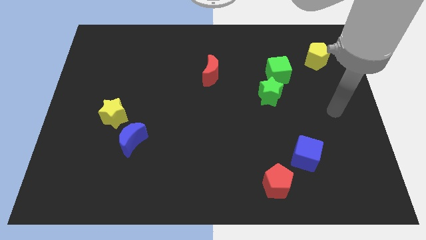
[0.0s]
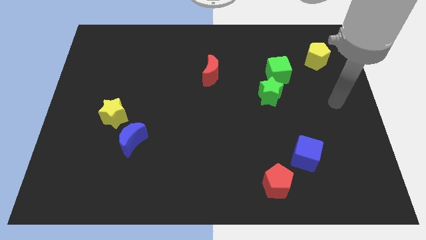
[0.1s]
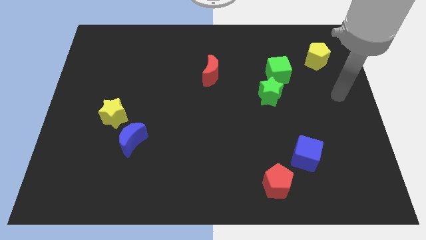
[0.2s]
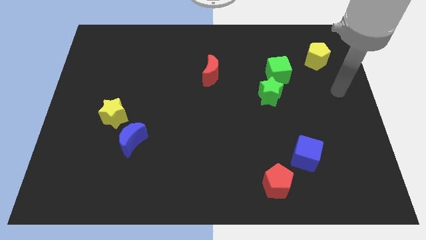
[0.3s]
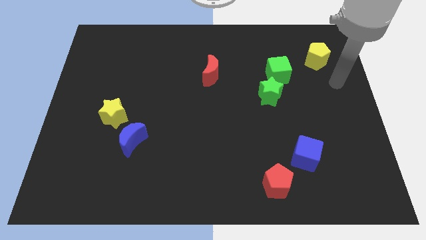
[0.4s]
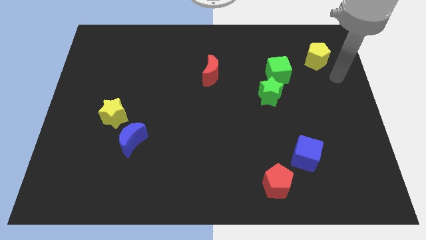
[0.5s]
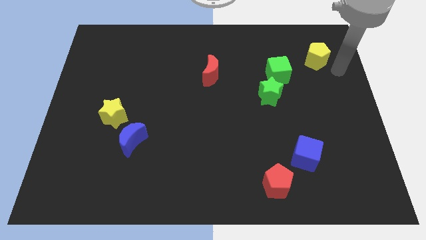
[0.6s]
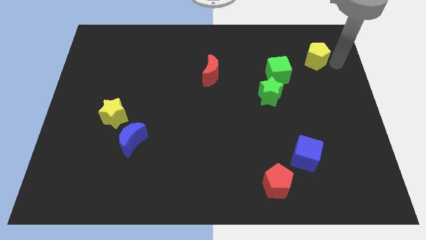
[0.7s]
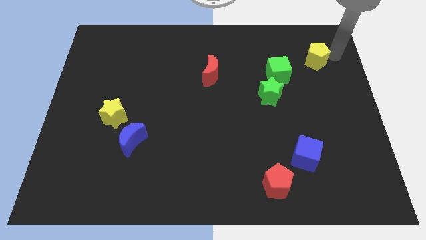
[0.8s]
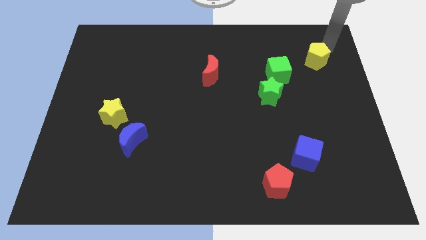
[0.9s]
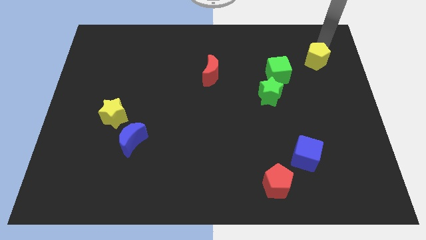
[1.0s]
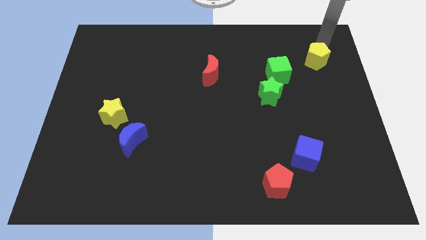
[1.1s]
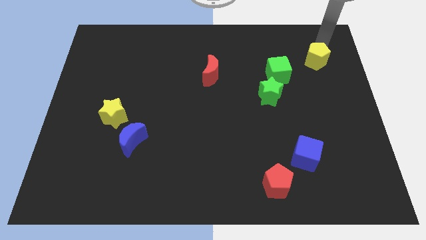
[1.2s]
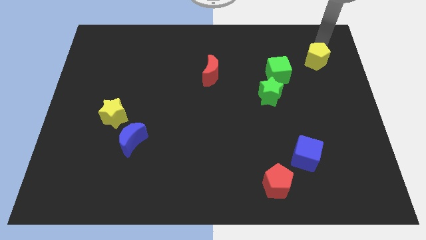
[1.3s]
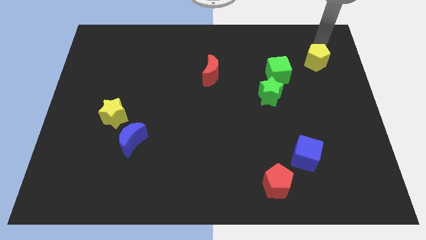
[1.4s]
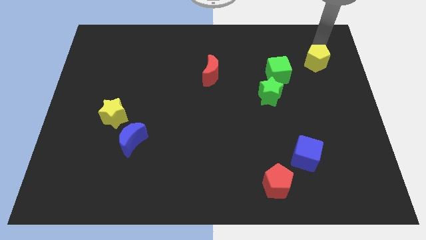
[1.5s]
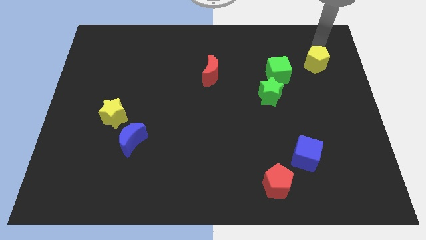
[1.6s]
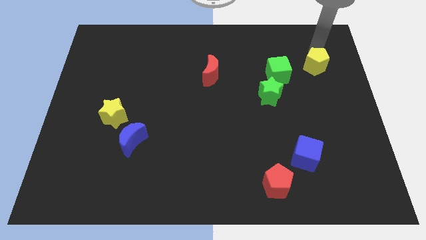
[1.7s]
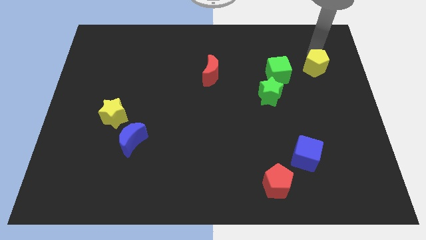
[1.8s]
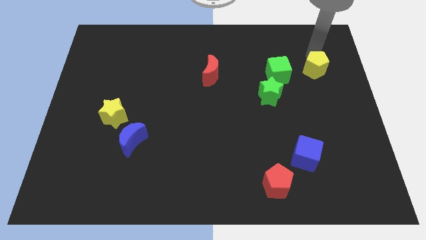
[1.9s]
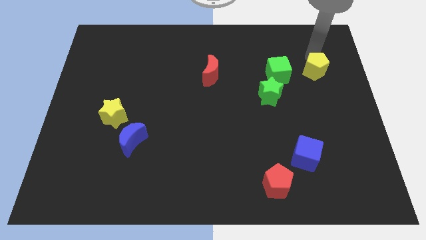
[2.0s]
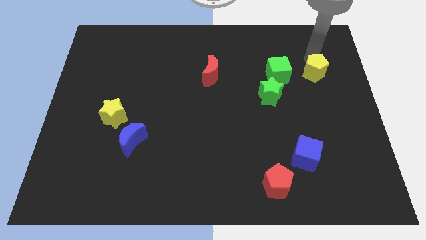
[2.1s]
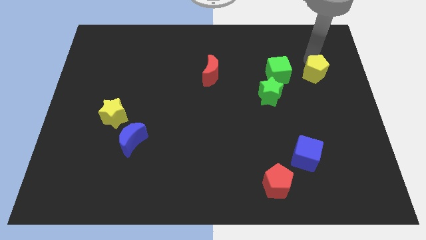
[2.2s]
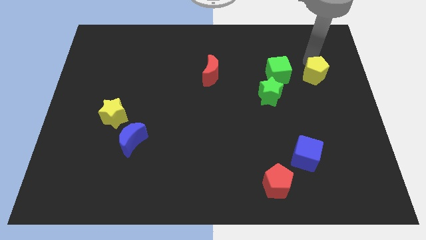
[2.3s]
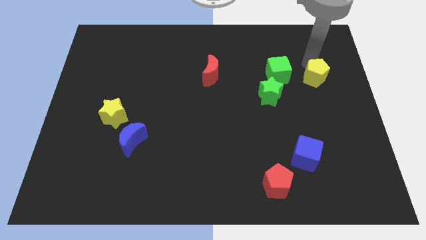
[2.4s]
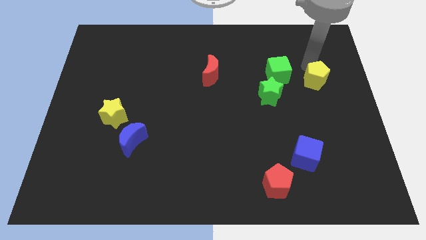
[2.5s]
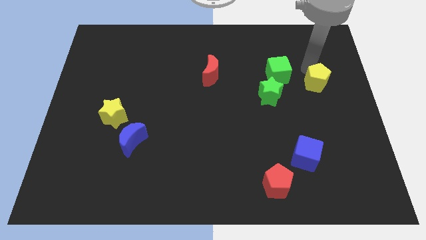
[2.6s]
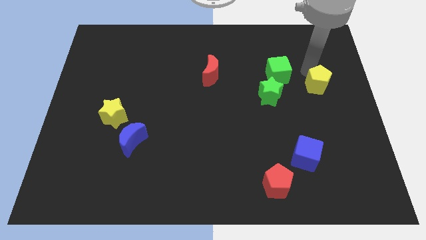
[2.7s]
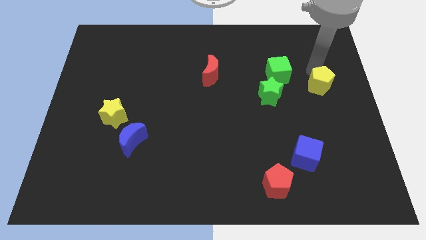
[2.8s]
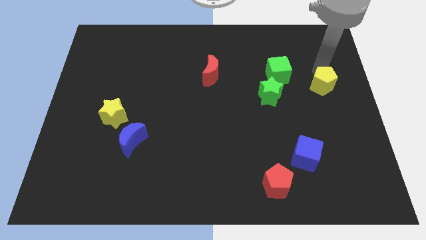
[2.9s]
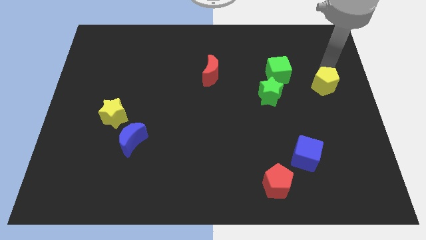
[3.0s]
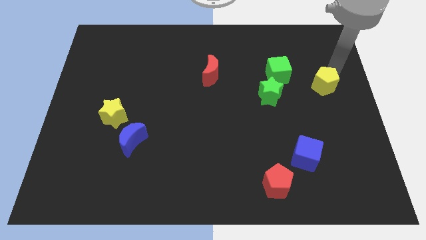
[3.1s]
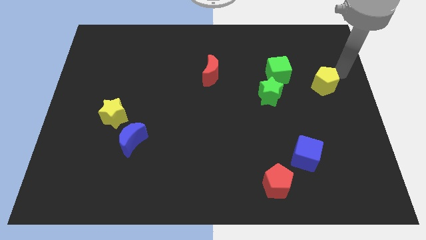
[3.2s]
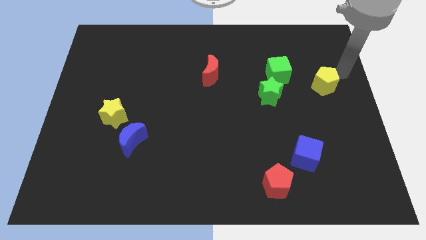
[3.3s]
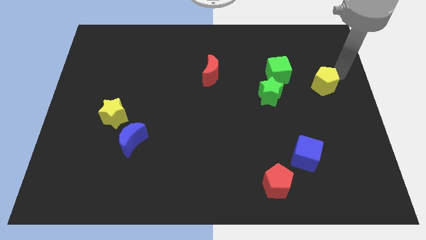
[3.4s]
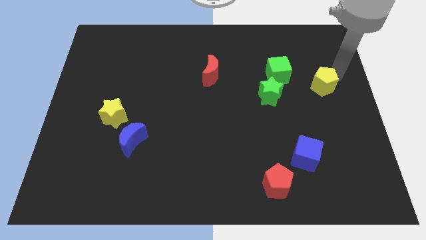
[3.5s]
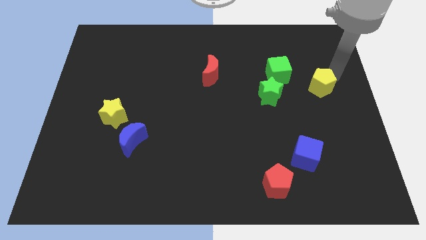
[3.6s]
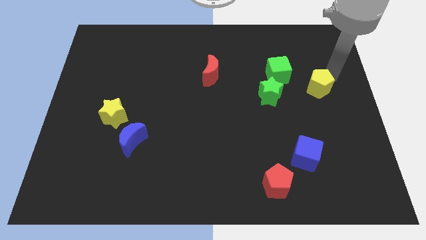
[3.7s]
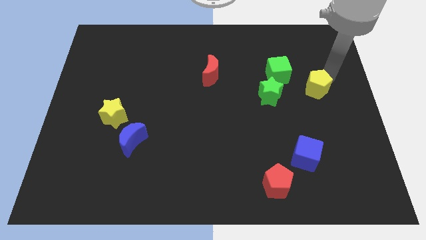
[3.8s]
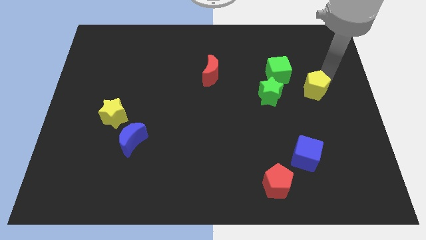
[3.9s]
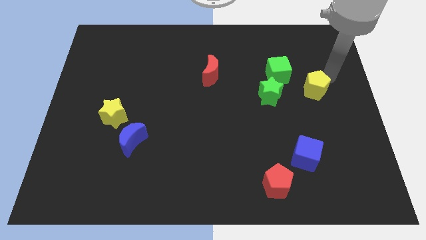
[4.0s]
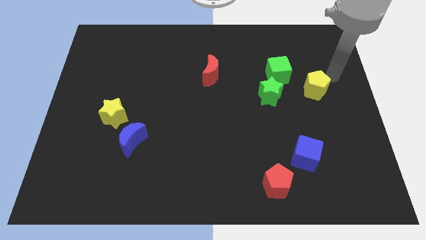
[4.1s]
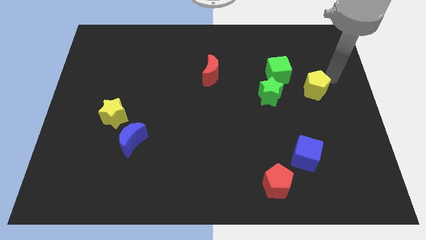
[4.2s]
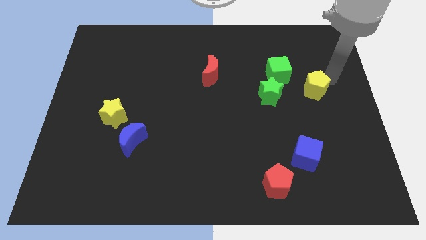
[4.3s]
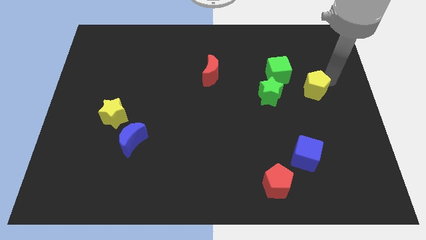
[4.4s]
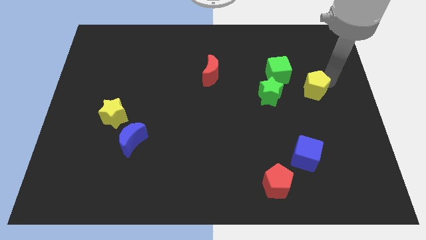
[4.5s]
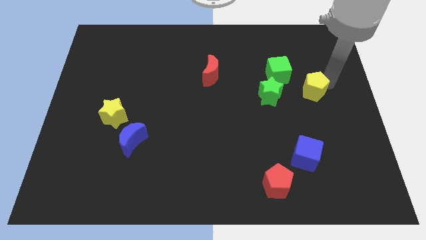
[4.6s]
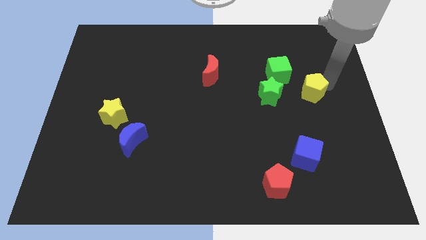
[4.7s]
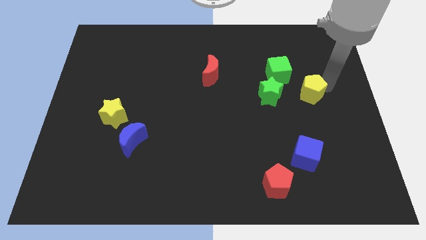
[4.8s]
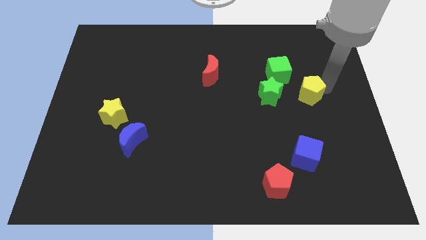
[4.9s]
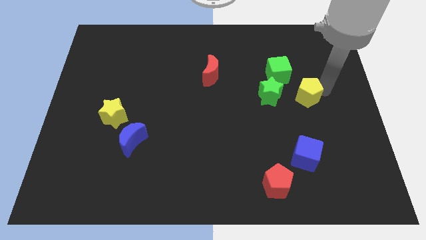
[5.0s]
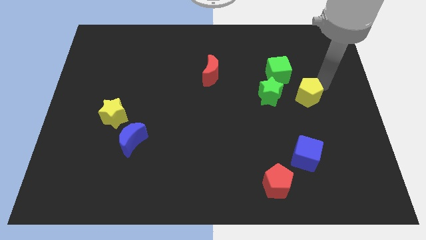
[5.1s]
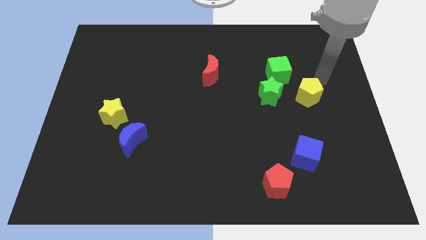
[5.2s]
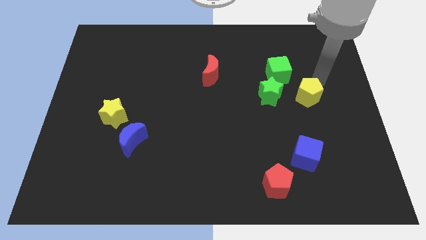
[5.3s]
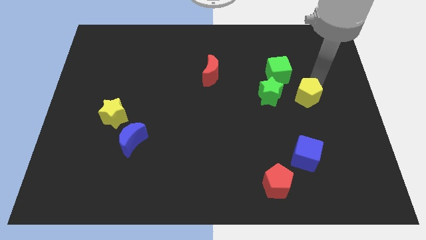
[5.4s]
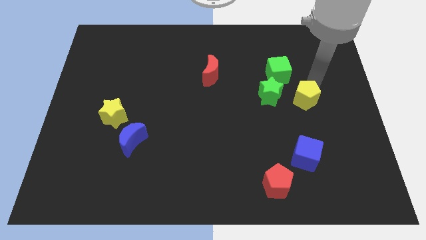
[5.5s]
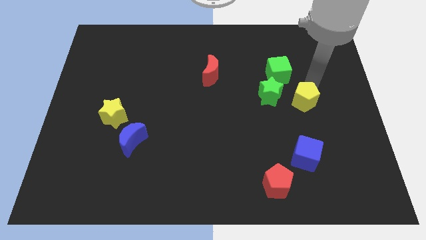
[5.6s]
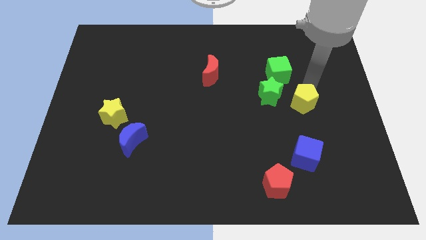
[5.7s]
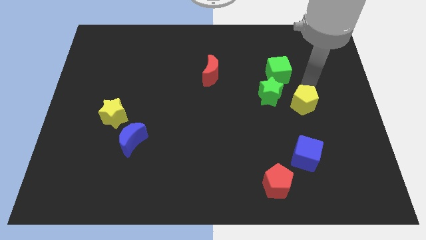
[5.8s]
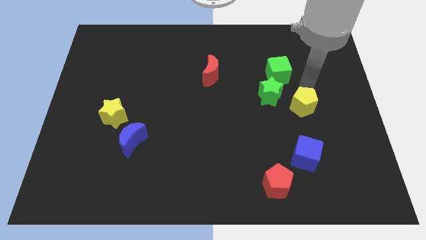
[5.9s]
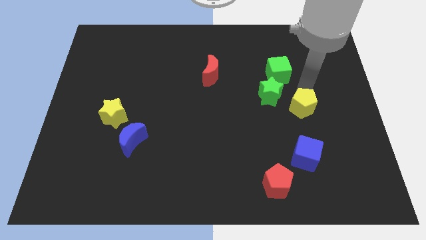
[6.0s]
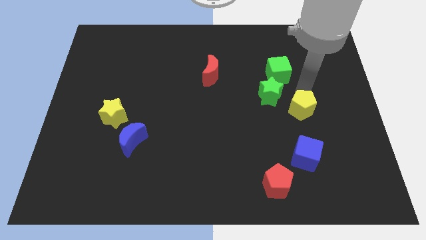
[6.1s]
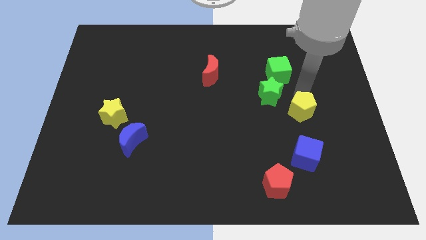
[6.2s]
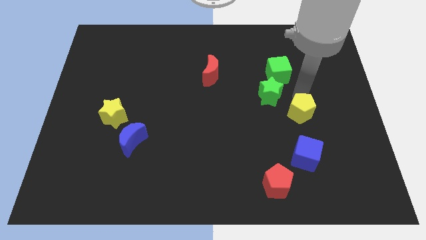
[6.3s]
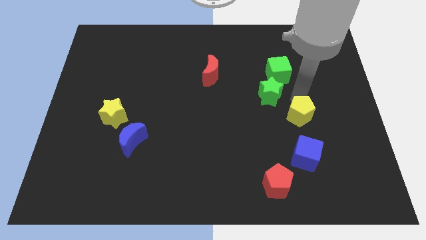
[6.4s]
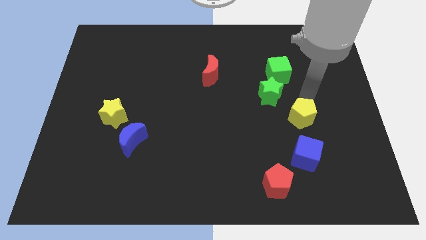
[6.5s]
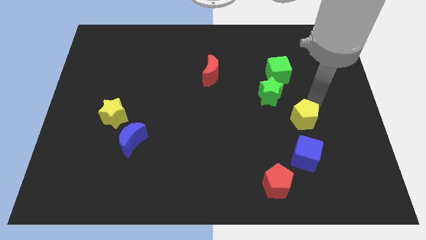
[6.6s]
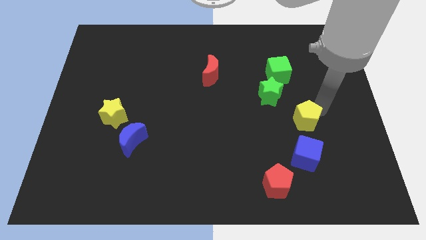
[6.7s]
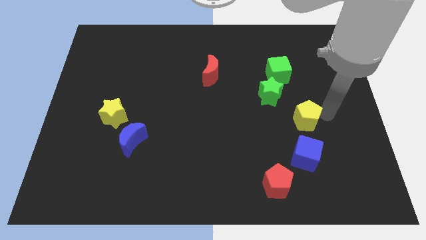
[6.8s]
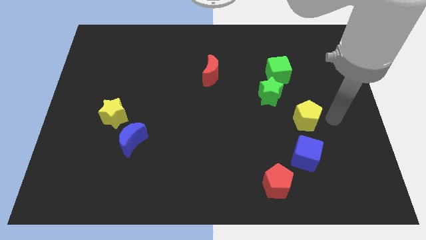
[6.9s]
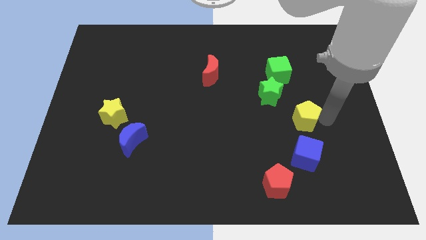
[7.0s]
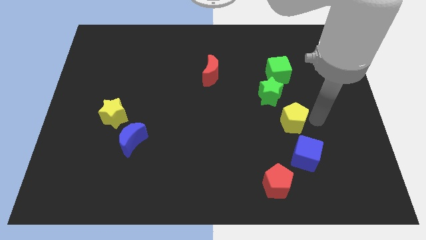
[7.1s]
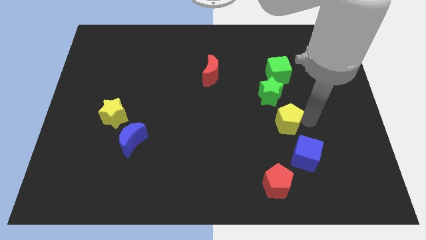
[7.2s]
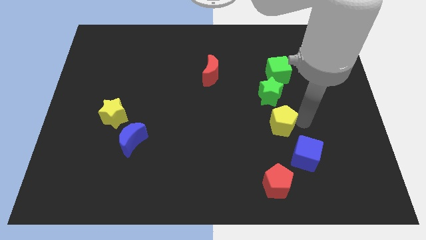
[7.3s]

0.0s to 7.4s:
slide the yellow pentagon downwards and then left

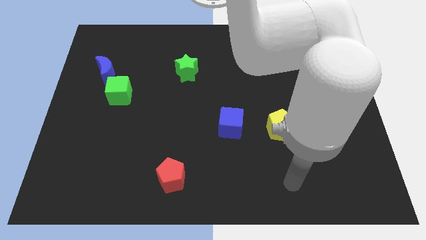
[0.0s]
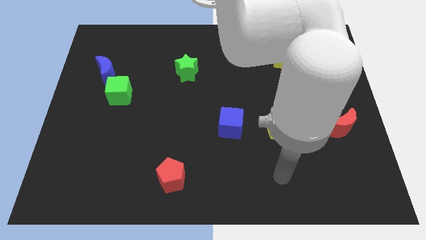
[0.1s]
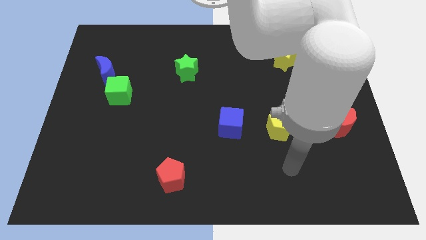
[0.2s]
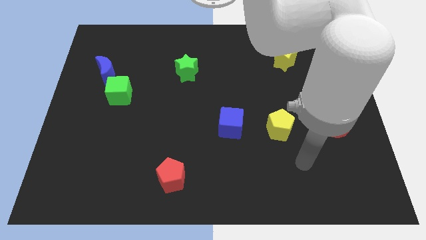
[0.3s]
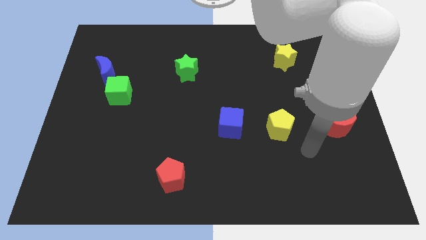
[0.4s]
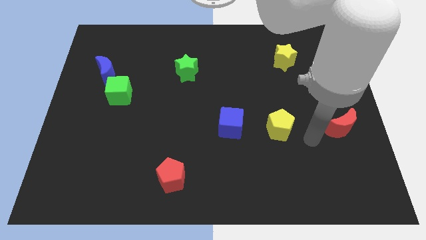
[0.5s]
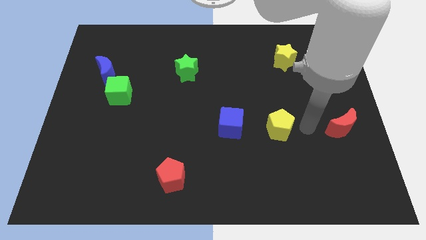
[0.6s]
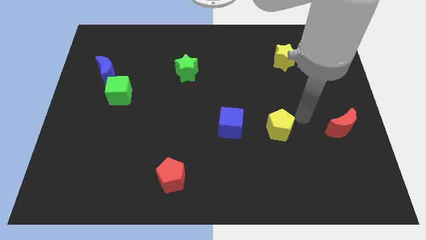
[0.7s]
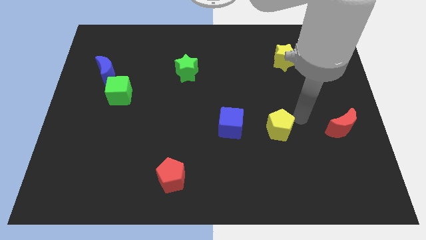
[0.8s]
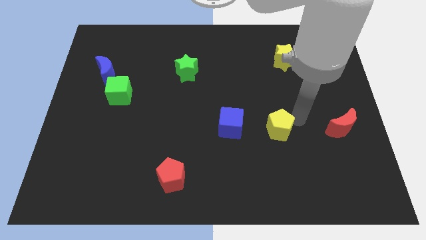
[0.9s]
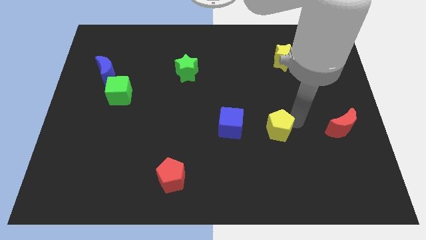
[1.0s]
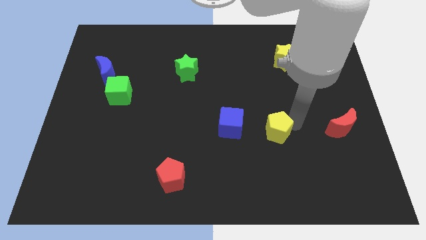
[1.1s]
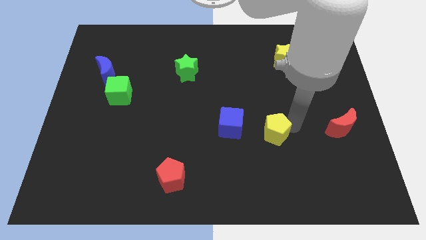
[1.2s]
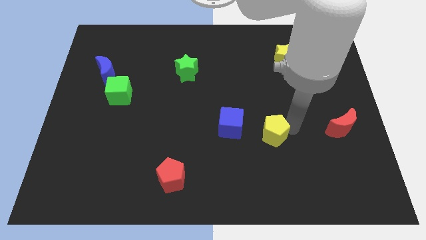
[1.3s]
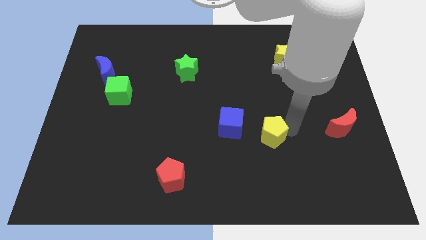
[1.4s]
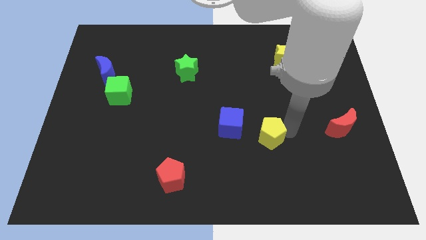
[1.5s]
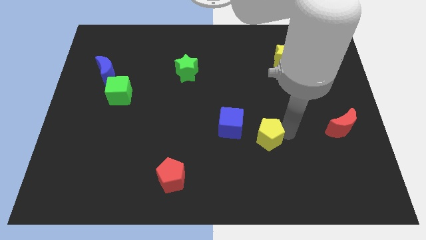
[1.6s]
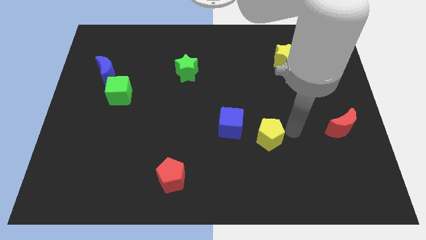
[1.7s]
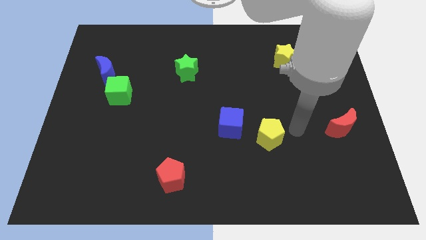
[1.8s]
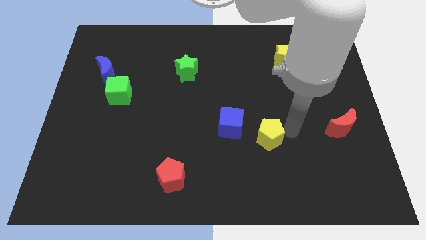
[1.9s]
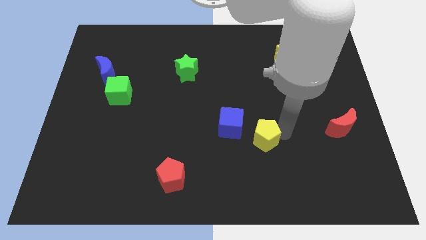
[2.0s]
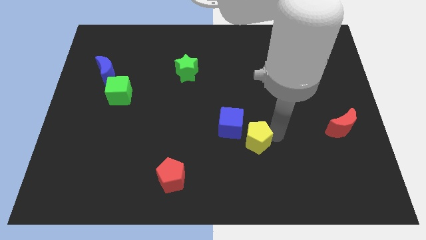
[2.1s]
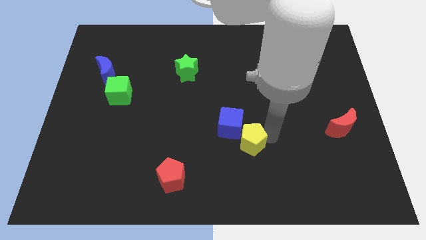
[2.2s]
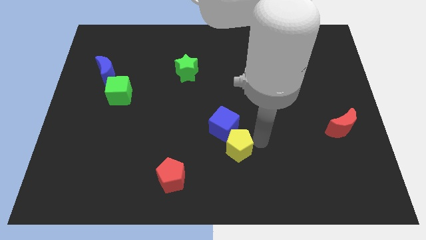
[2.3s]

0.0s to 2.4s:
move the yellow pentagon to the left a bit
